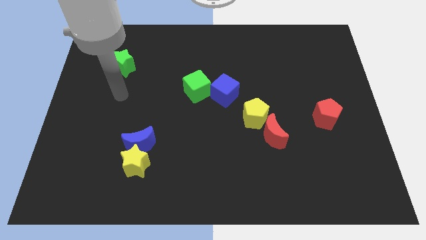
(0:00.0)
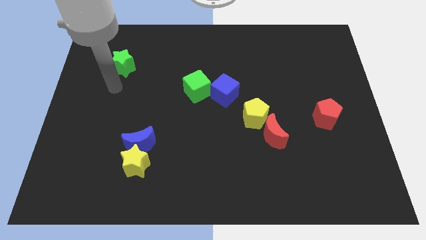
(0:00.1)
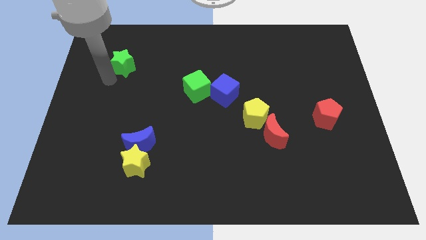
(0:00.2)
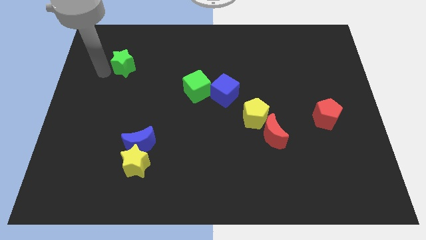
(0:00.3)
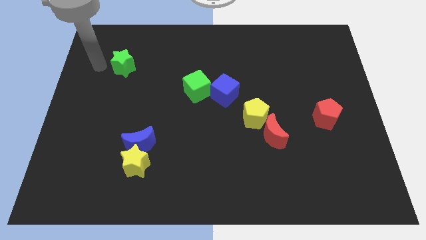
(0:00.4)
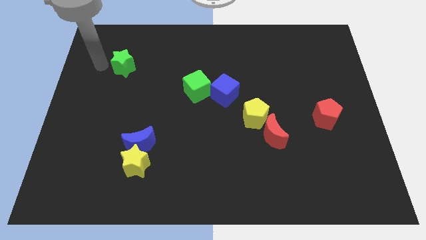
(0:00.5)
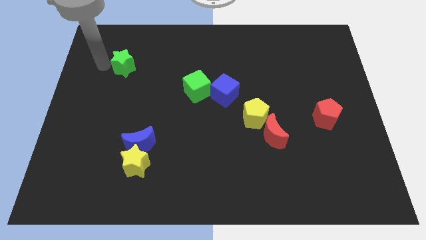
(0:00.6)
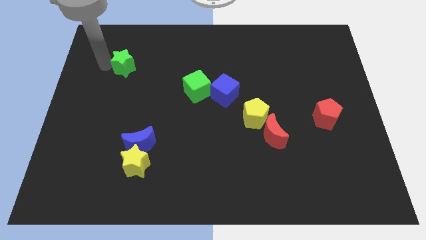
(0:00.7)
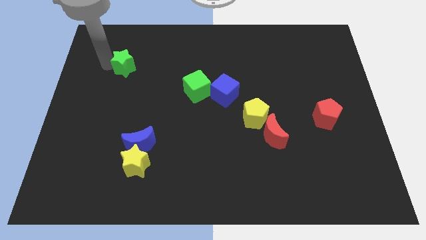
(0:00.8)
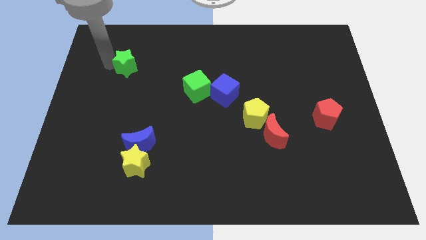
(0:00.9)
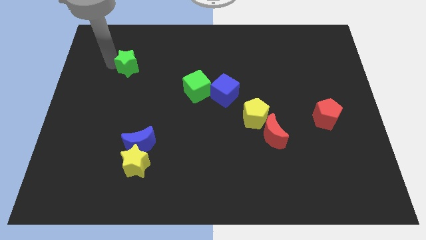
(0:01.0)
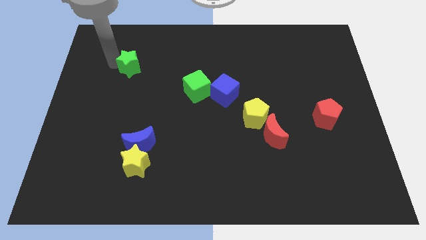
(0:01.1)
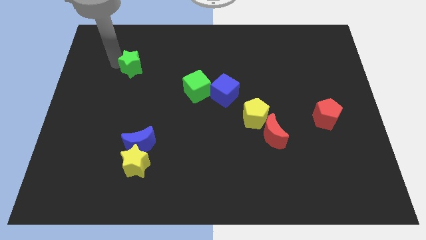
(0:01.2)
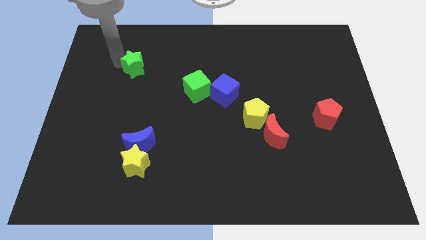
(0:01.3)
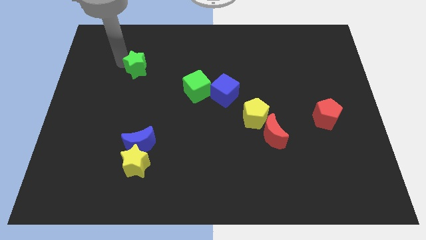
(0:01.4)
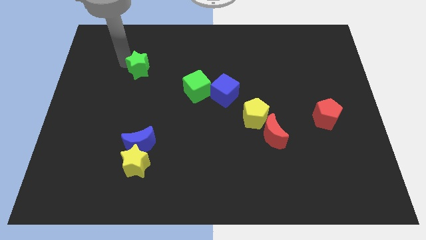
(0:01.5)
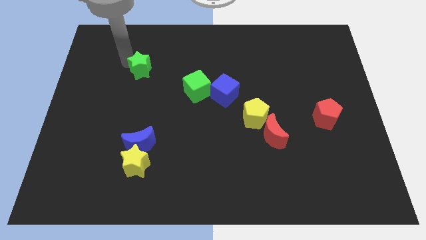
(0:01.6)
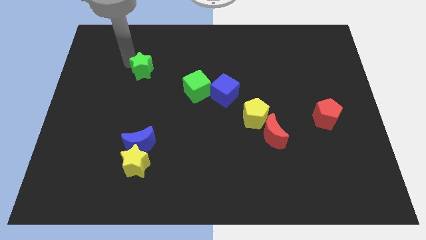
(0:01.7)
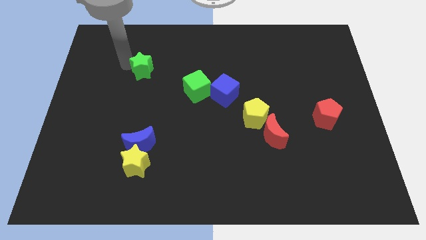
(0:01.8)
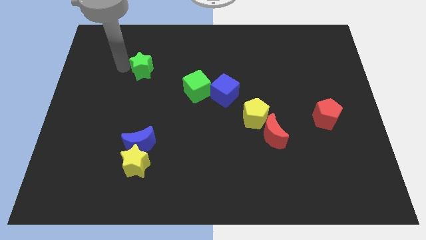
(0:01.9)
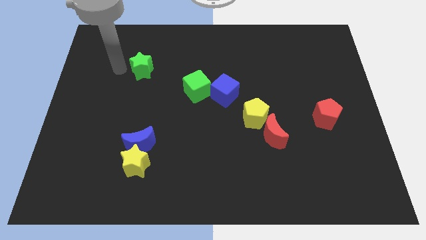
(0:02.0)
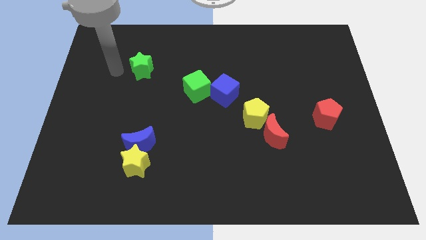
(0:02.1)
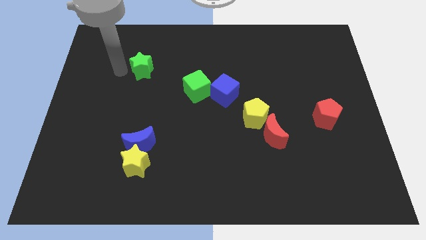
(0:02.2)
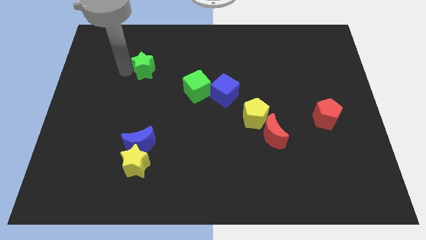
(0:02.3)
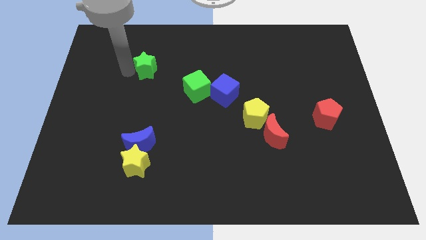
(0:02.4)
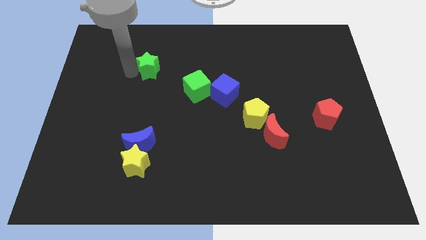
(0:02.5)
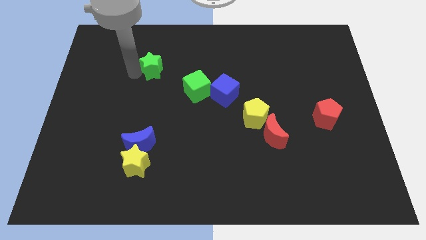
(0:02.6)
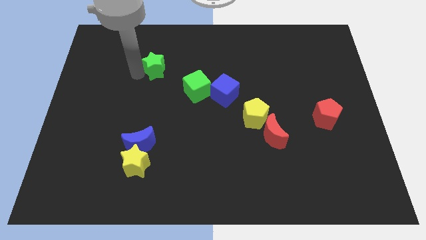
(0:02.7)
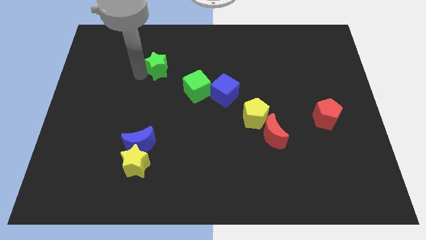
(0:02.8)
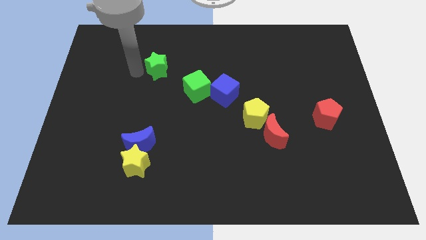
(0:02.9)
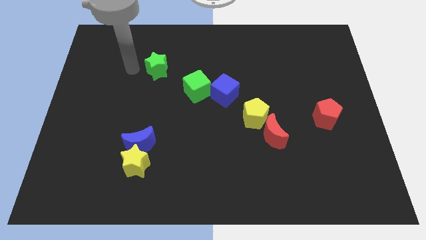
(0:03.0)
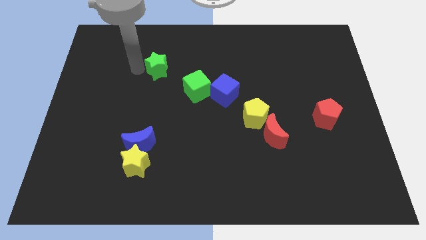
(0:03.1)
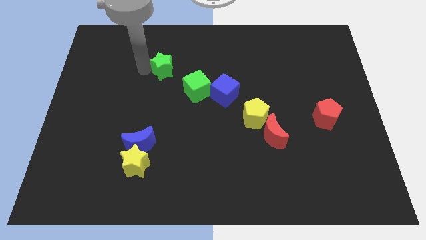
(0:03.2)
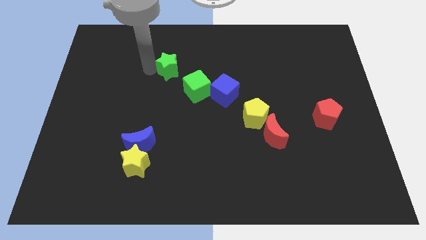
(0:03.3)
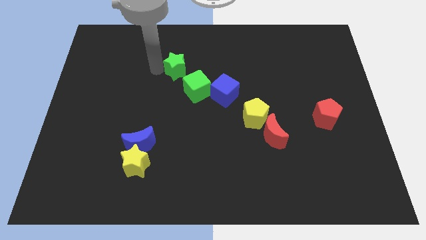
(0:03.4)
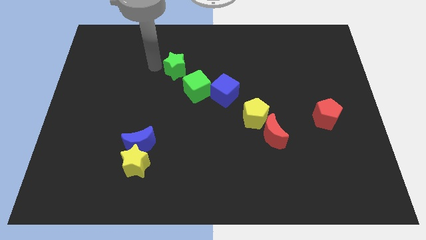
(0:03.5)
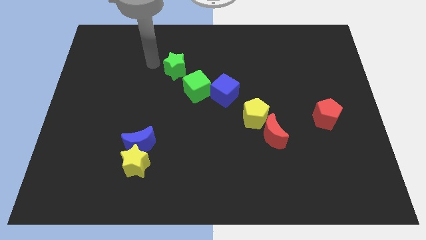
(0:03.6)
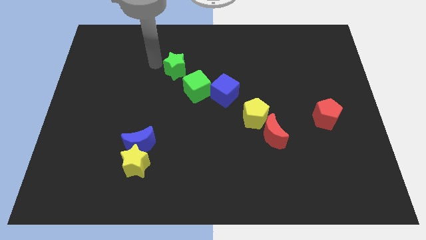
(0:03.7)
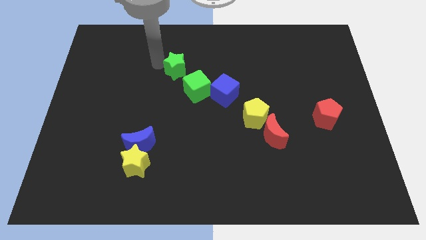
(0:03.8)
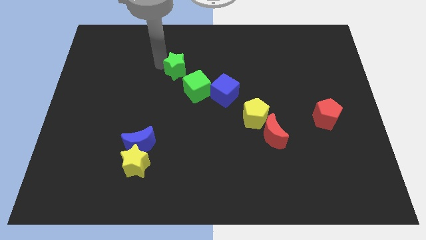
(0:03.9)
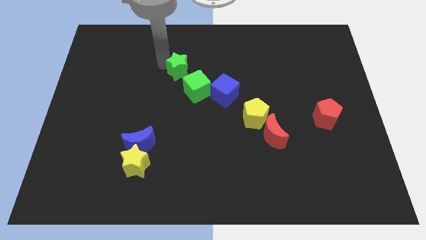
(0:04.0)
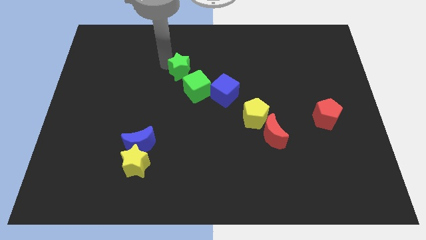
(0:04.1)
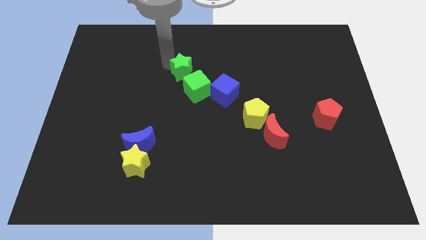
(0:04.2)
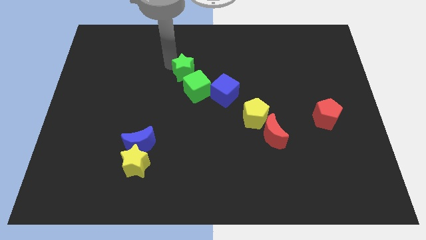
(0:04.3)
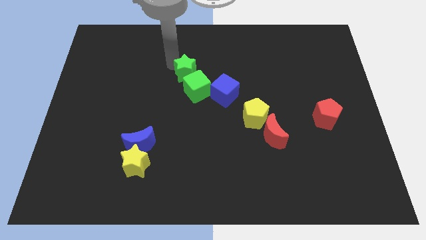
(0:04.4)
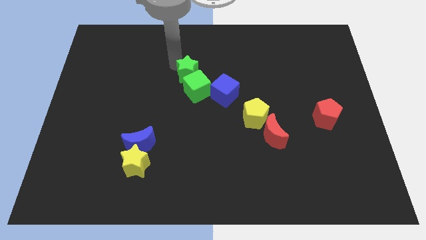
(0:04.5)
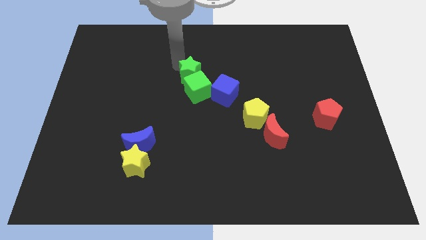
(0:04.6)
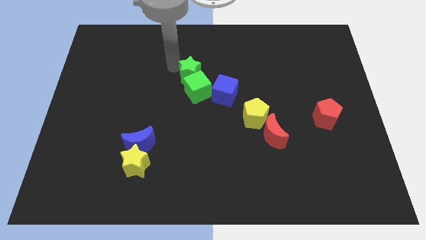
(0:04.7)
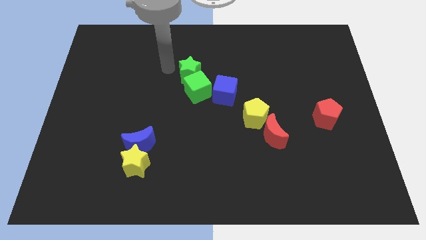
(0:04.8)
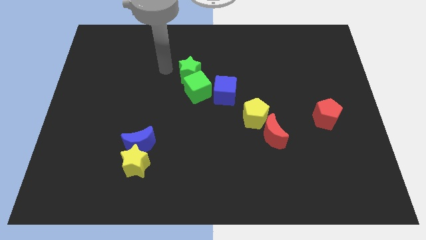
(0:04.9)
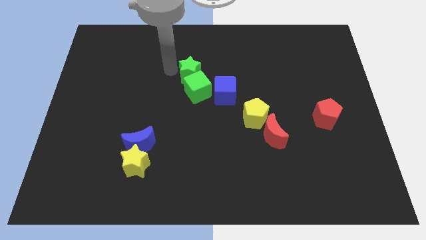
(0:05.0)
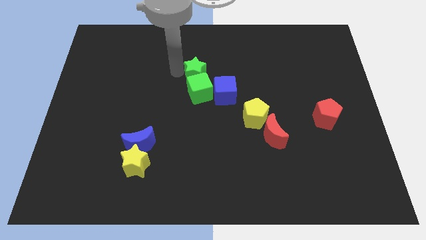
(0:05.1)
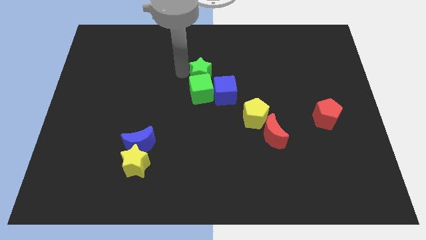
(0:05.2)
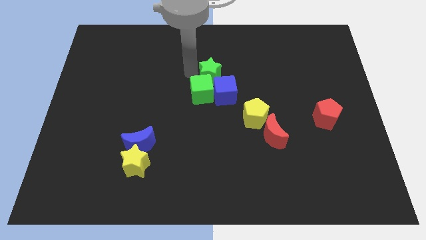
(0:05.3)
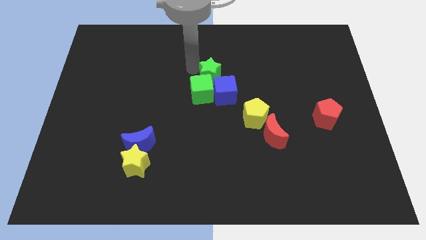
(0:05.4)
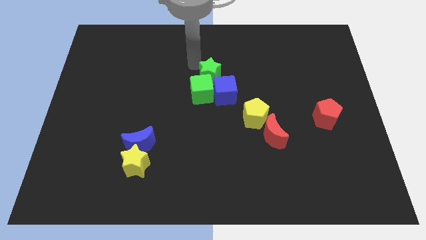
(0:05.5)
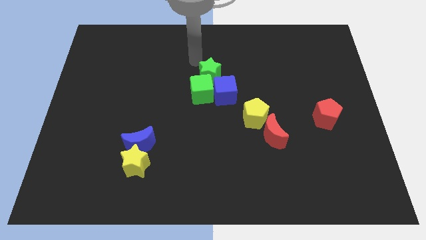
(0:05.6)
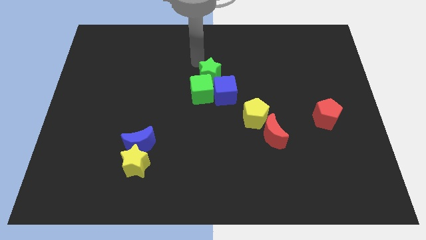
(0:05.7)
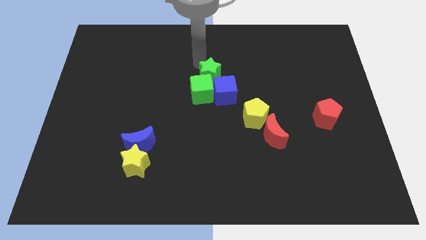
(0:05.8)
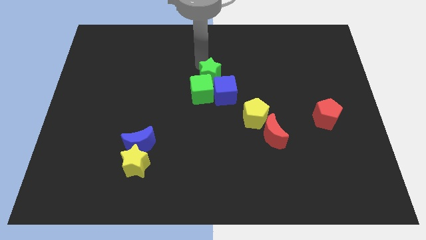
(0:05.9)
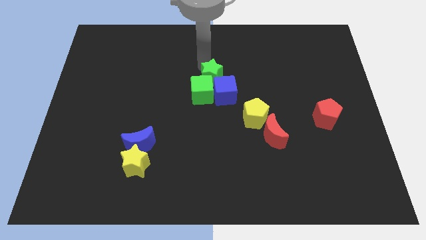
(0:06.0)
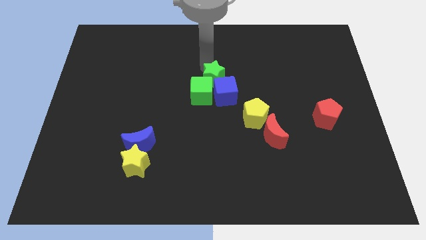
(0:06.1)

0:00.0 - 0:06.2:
push the green star to the blue cube

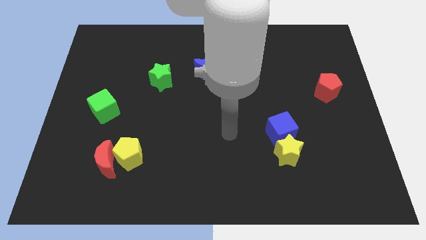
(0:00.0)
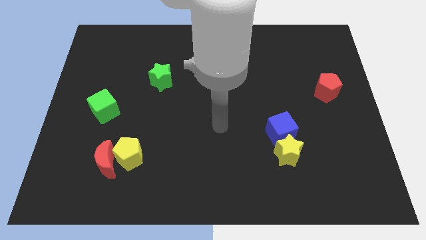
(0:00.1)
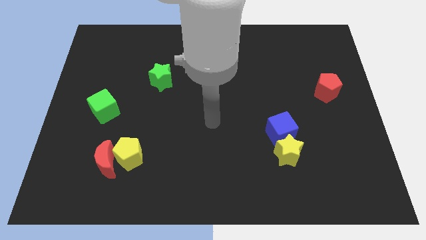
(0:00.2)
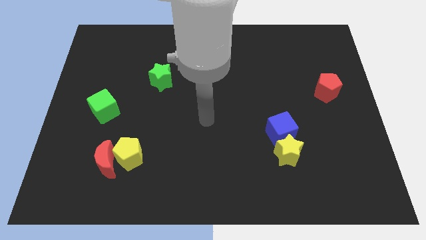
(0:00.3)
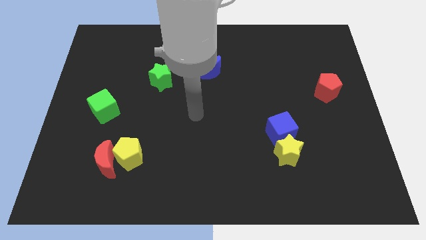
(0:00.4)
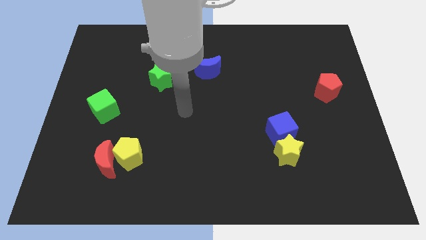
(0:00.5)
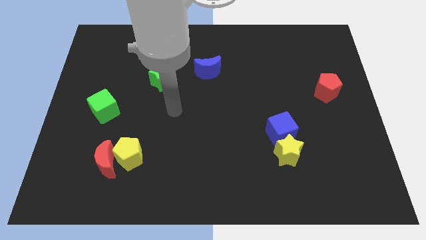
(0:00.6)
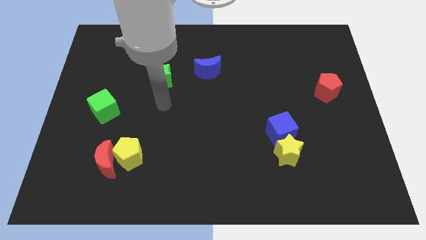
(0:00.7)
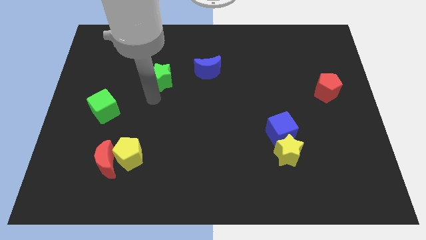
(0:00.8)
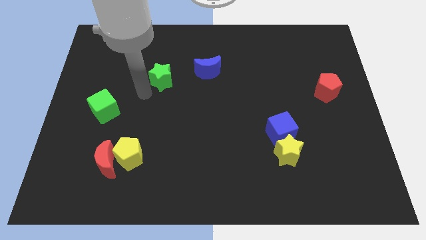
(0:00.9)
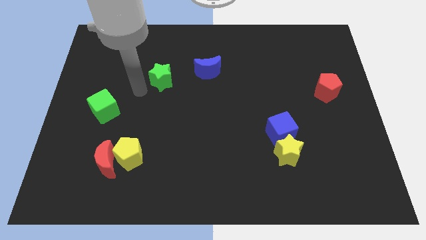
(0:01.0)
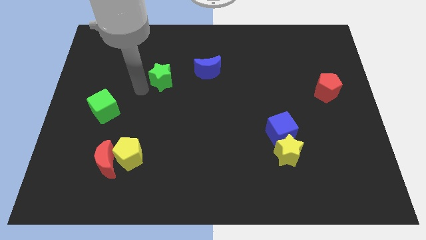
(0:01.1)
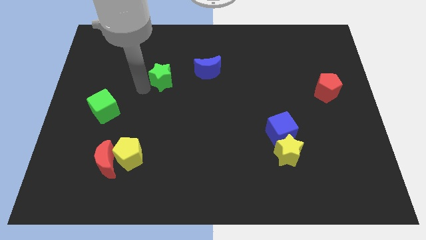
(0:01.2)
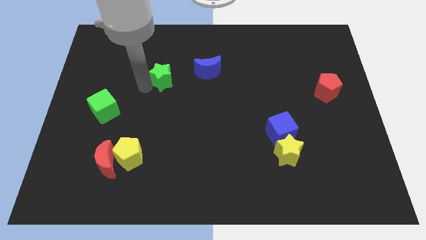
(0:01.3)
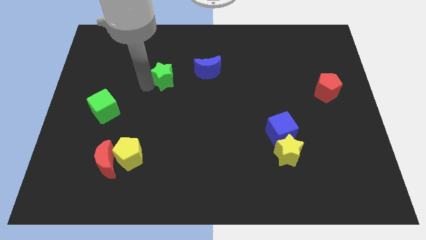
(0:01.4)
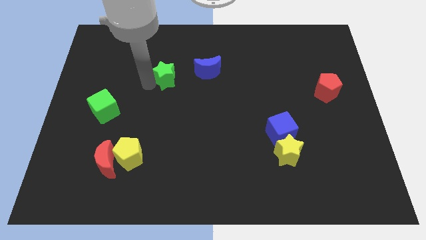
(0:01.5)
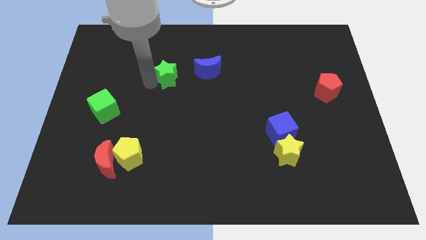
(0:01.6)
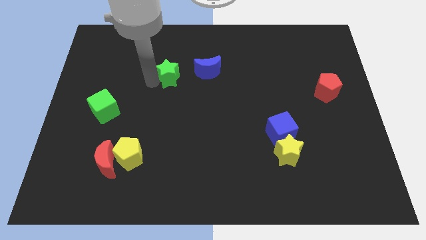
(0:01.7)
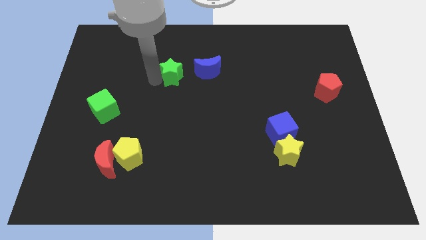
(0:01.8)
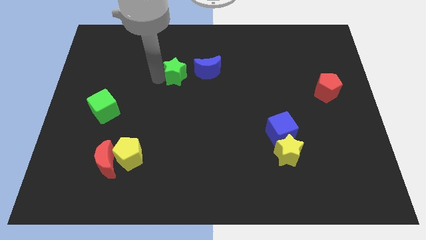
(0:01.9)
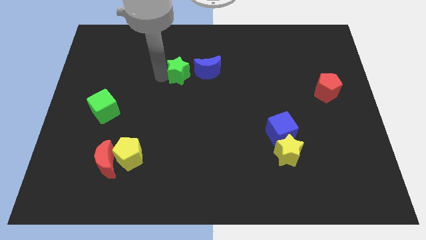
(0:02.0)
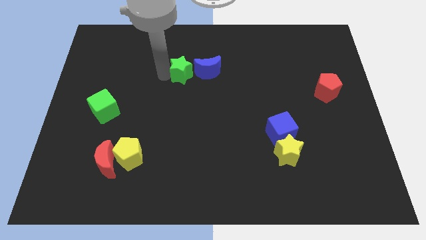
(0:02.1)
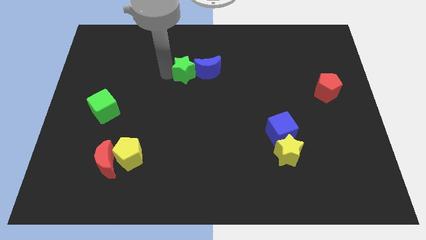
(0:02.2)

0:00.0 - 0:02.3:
push the green star to the blue moon
